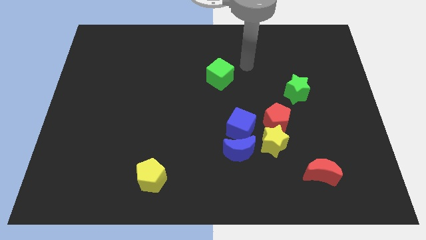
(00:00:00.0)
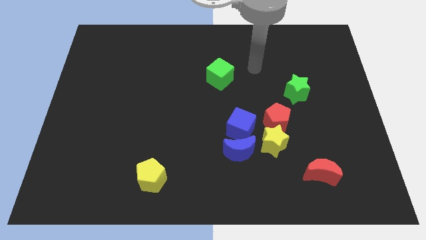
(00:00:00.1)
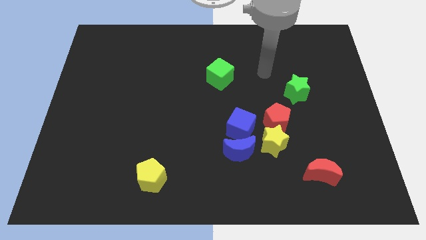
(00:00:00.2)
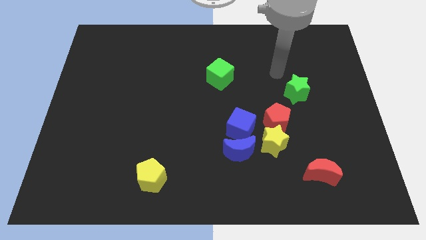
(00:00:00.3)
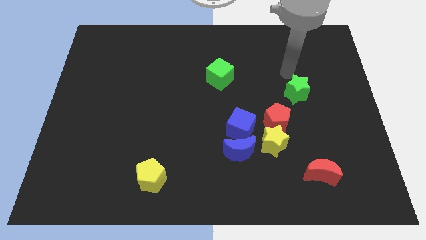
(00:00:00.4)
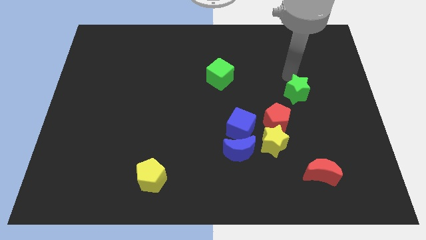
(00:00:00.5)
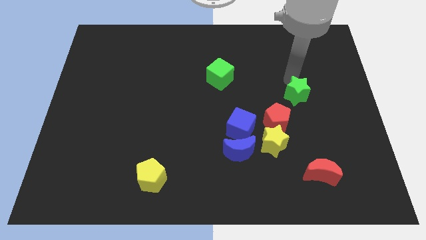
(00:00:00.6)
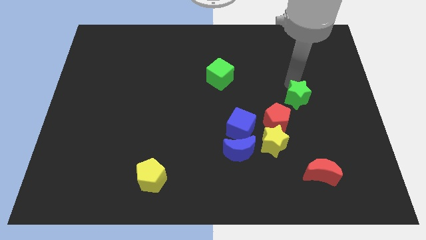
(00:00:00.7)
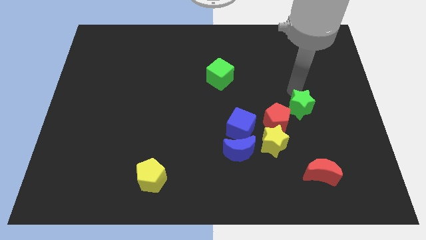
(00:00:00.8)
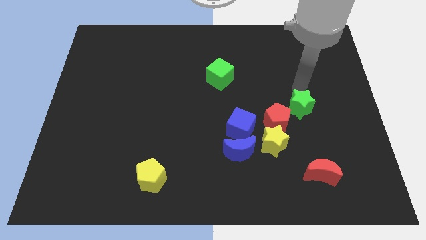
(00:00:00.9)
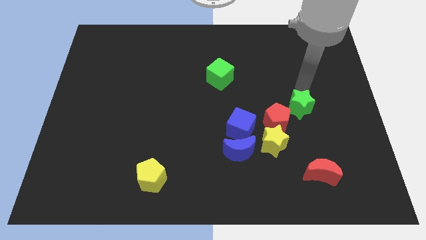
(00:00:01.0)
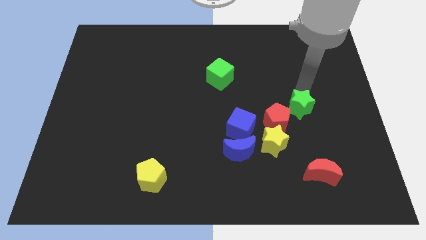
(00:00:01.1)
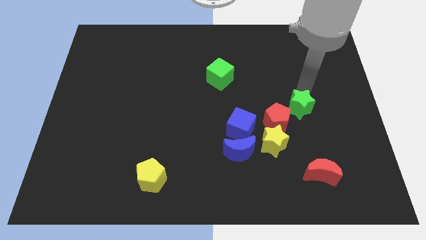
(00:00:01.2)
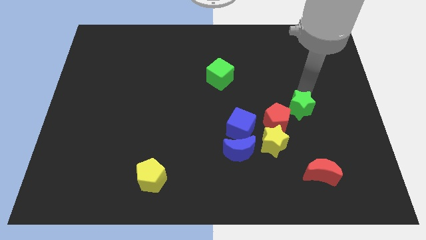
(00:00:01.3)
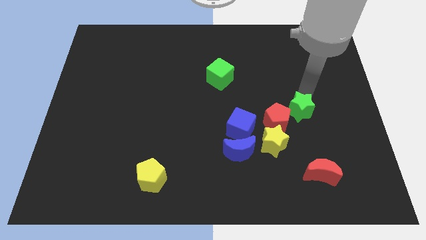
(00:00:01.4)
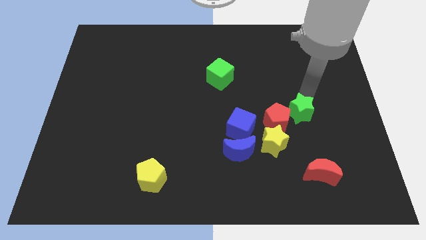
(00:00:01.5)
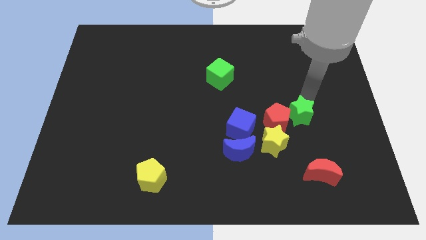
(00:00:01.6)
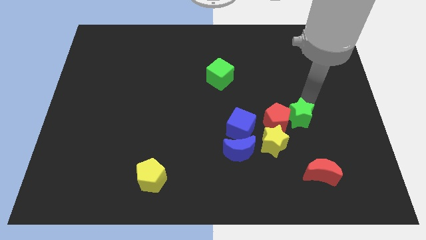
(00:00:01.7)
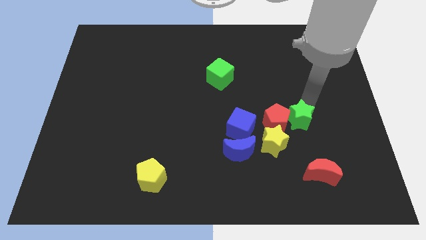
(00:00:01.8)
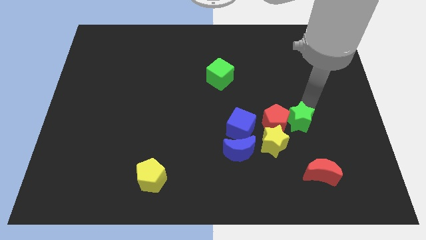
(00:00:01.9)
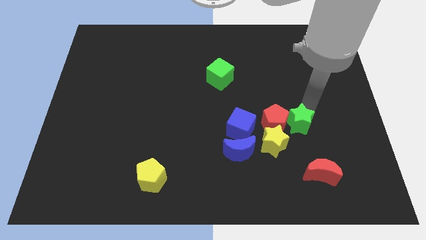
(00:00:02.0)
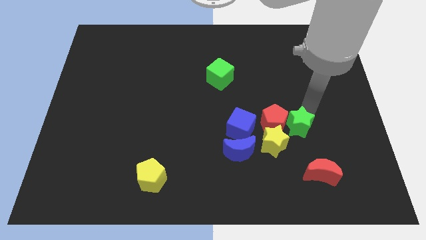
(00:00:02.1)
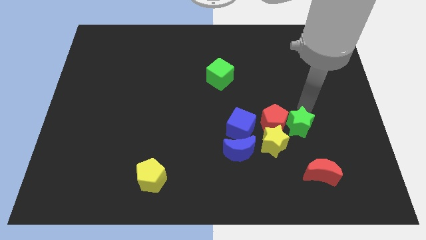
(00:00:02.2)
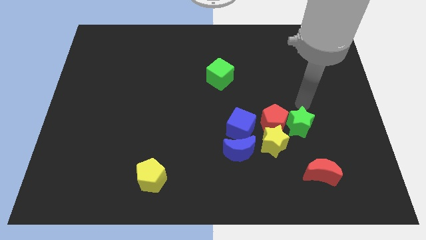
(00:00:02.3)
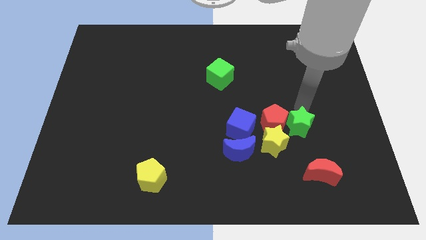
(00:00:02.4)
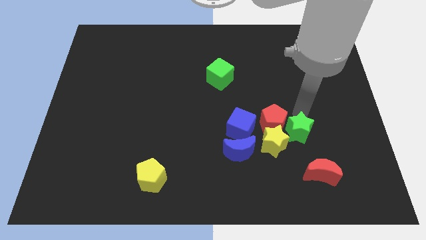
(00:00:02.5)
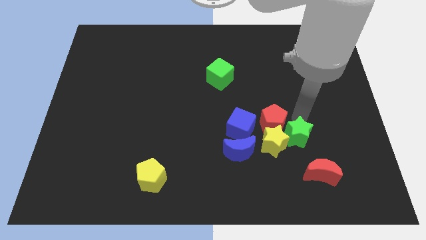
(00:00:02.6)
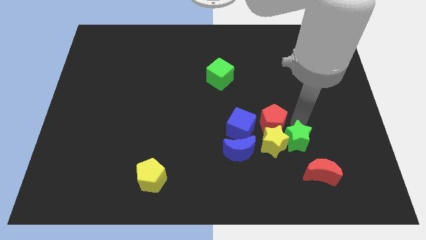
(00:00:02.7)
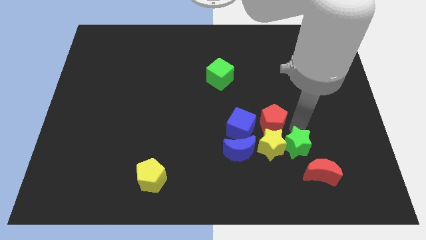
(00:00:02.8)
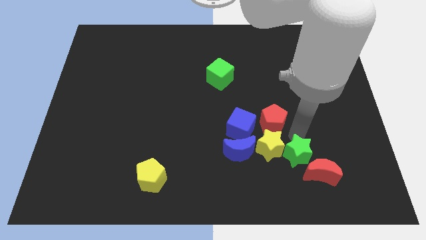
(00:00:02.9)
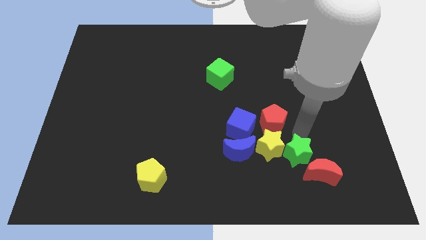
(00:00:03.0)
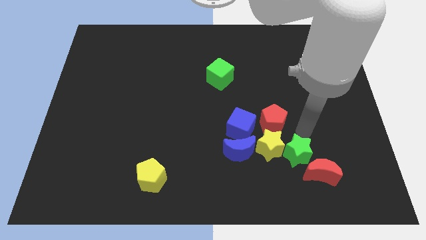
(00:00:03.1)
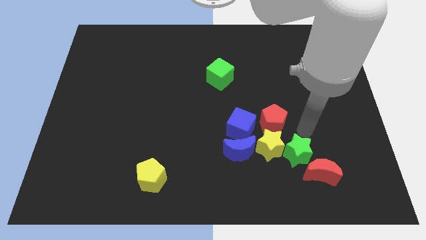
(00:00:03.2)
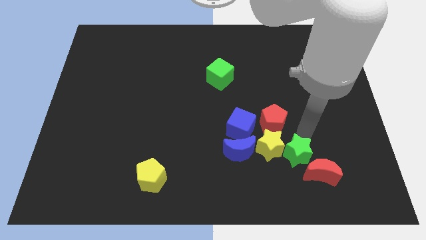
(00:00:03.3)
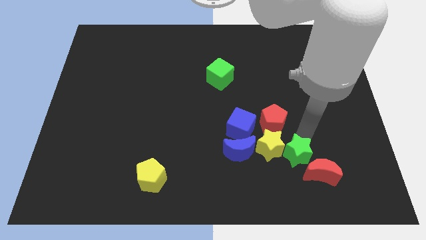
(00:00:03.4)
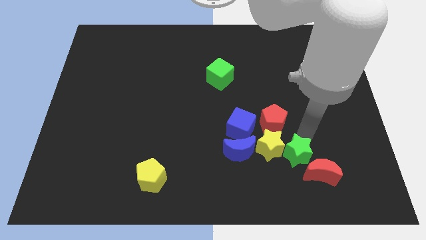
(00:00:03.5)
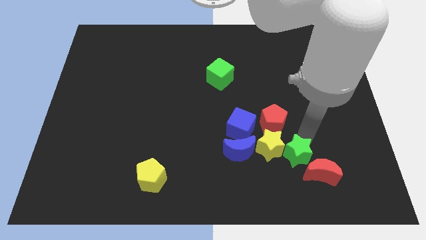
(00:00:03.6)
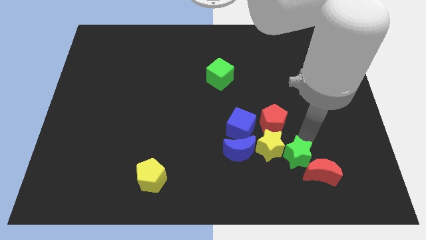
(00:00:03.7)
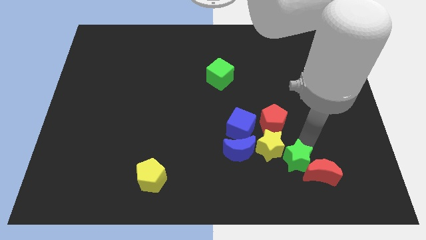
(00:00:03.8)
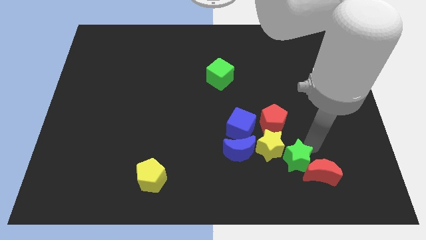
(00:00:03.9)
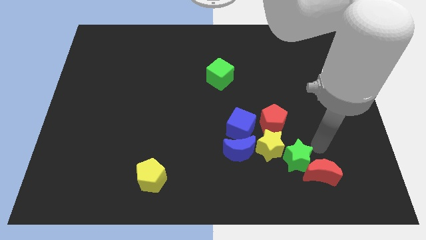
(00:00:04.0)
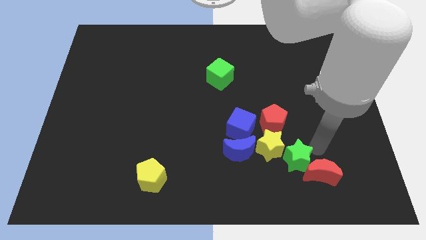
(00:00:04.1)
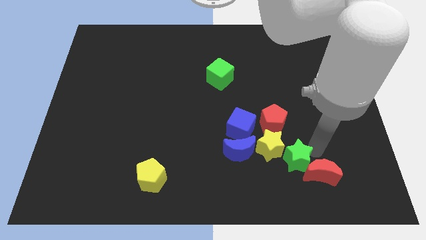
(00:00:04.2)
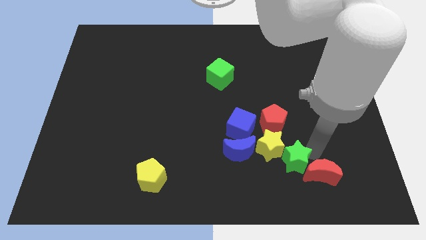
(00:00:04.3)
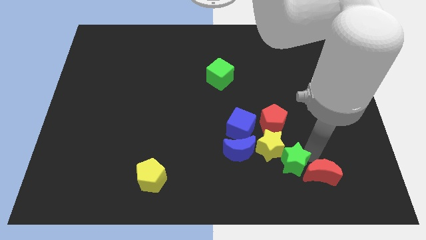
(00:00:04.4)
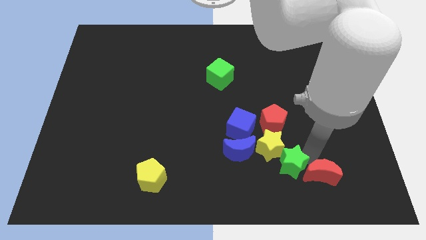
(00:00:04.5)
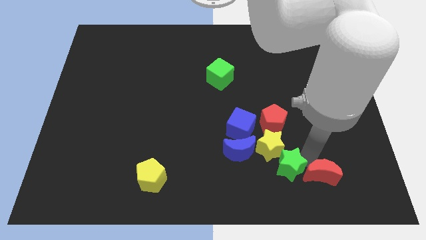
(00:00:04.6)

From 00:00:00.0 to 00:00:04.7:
move the green star to the bottom right side of the blue moon

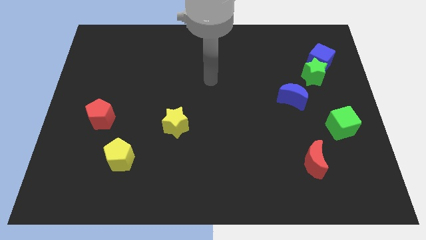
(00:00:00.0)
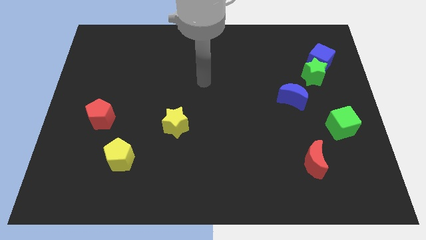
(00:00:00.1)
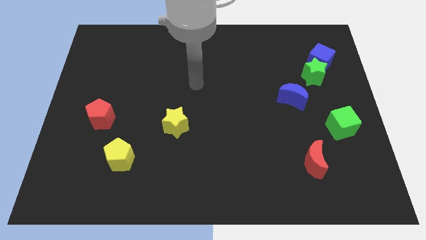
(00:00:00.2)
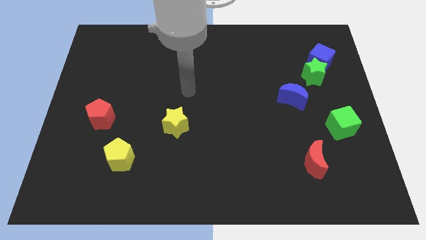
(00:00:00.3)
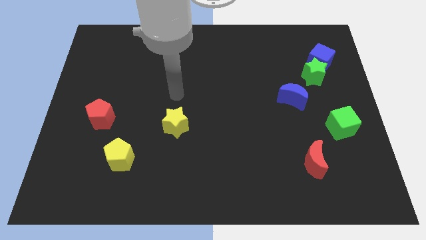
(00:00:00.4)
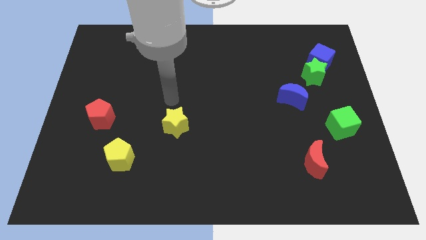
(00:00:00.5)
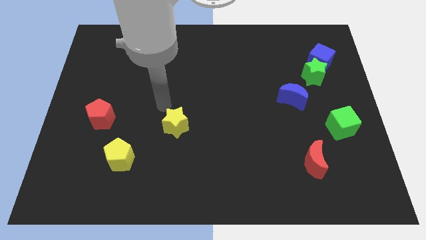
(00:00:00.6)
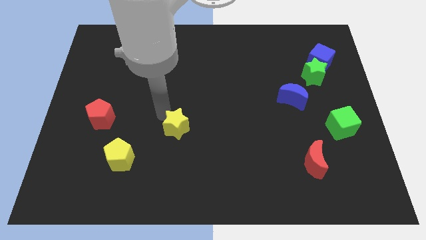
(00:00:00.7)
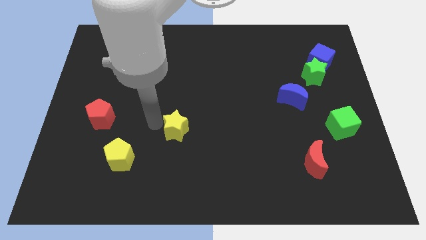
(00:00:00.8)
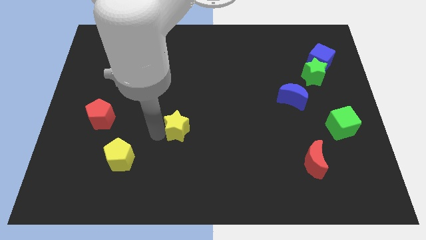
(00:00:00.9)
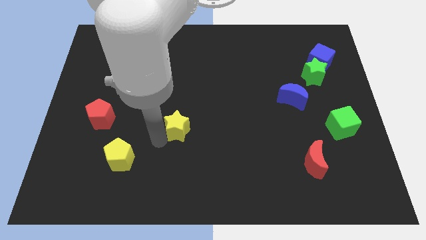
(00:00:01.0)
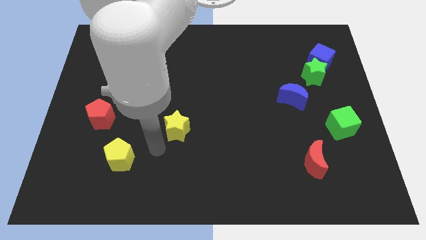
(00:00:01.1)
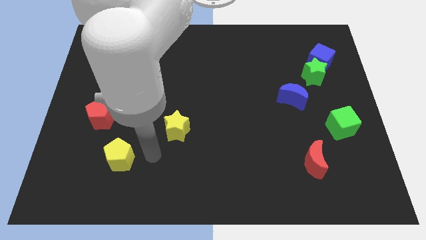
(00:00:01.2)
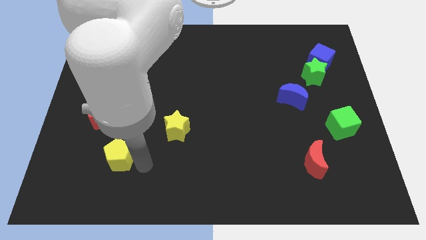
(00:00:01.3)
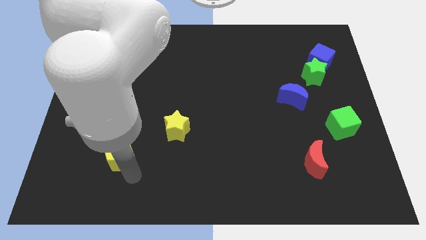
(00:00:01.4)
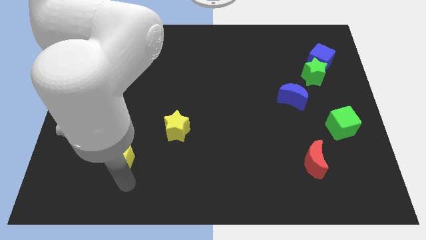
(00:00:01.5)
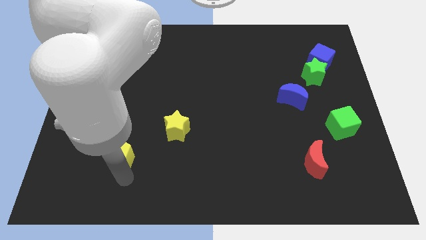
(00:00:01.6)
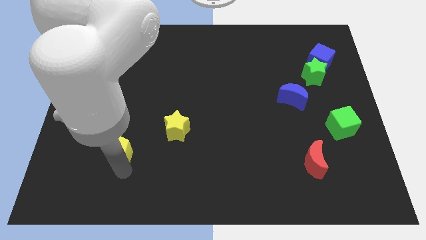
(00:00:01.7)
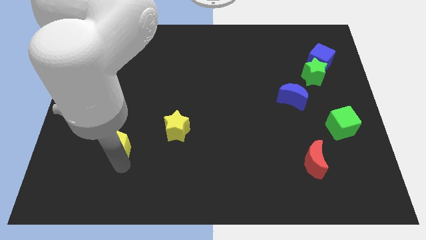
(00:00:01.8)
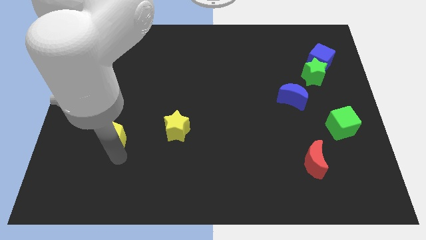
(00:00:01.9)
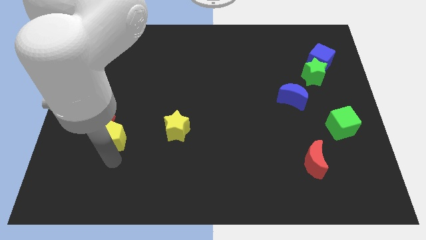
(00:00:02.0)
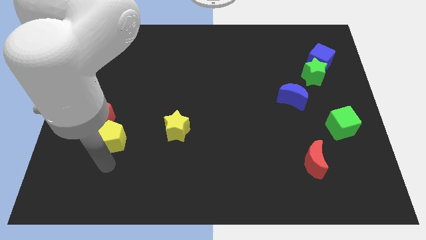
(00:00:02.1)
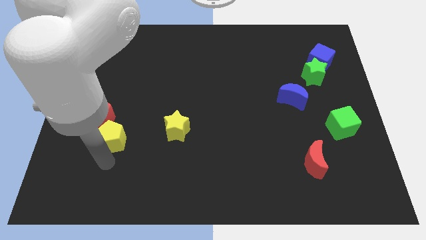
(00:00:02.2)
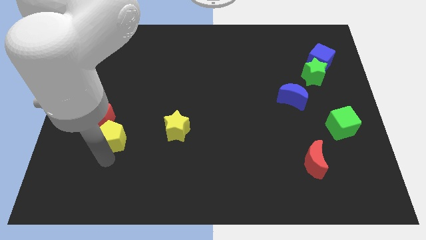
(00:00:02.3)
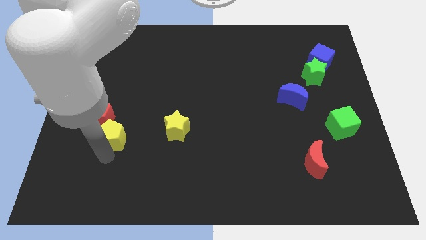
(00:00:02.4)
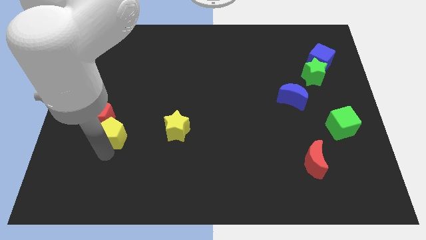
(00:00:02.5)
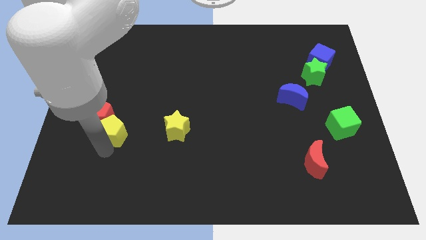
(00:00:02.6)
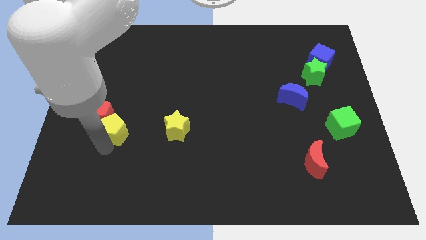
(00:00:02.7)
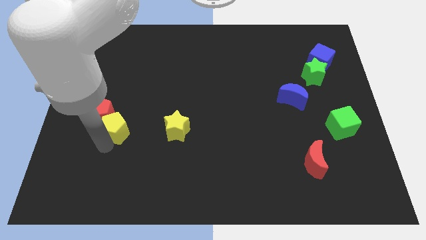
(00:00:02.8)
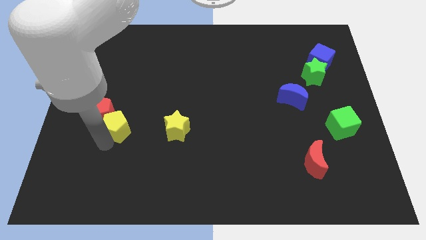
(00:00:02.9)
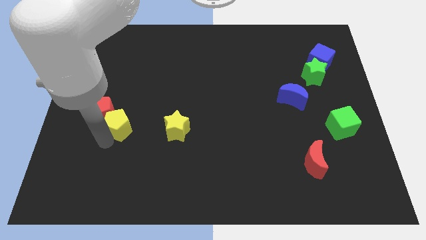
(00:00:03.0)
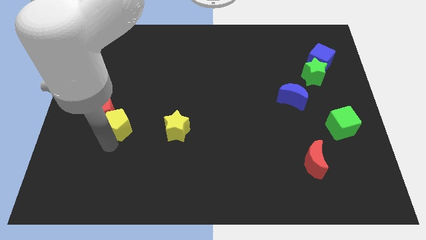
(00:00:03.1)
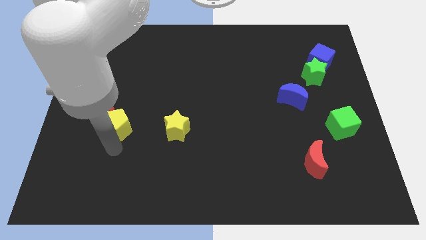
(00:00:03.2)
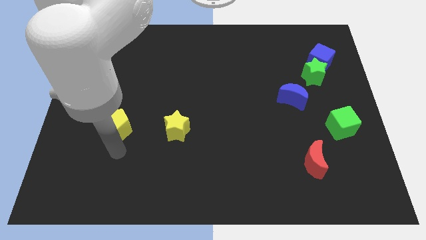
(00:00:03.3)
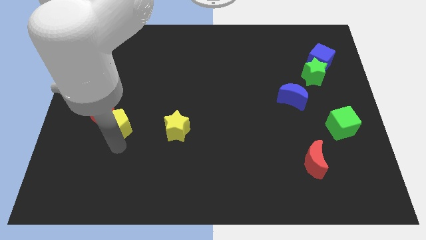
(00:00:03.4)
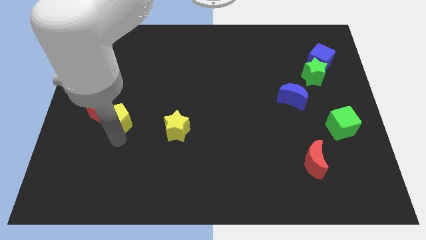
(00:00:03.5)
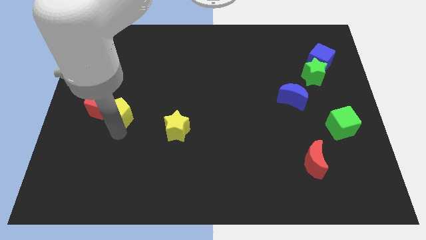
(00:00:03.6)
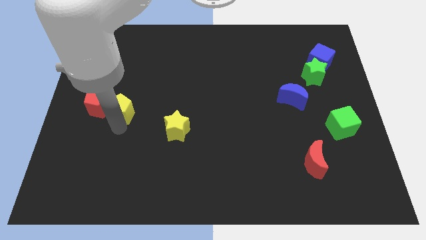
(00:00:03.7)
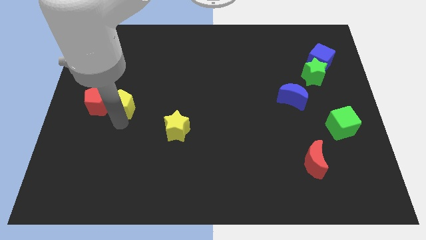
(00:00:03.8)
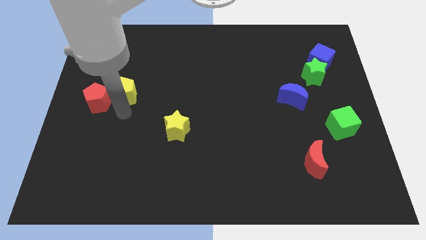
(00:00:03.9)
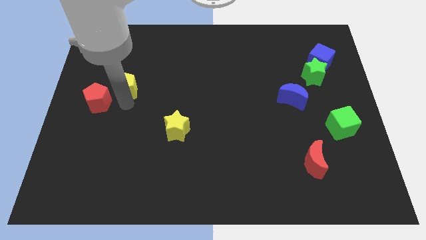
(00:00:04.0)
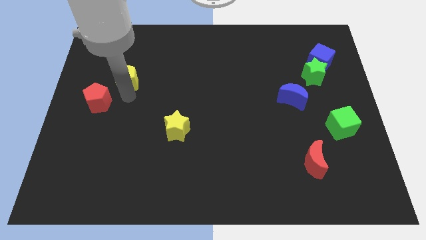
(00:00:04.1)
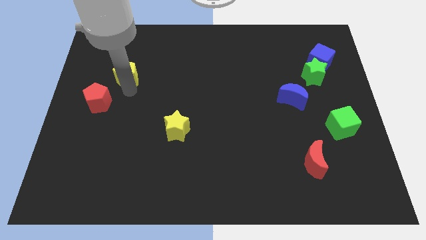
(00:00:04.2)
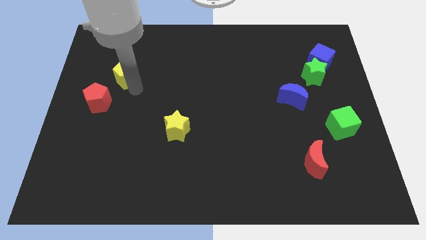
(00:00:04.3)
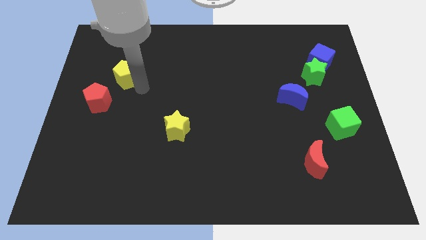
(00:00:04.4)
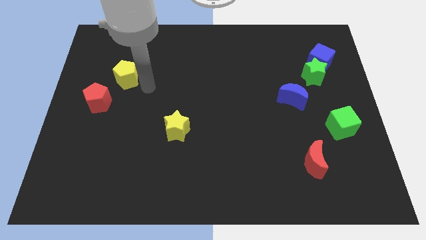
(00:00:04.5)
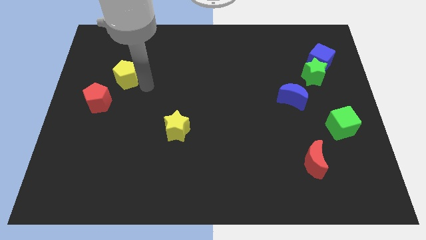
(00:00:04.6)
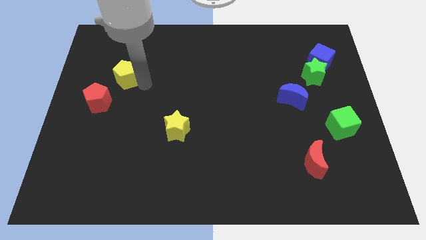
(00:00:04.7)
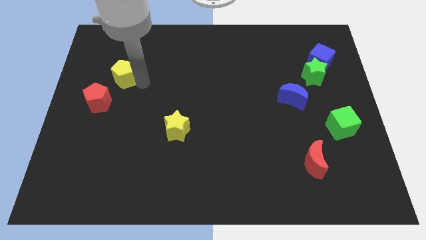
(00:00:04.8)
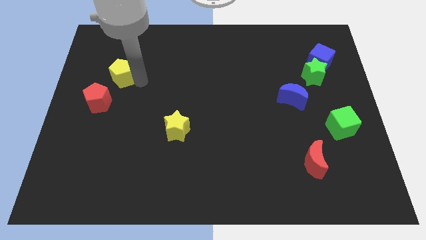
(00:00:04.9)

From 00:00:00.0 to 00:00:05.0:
put the yellow pentagon to the top of the red pentagon
